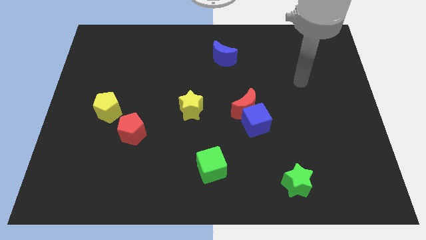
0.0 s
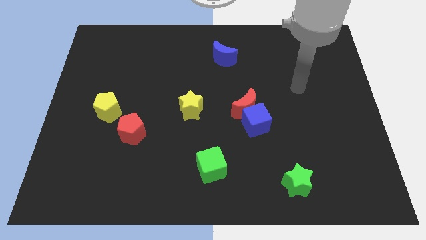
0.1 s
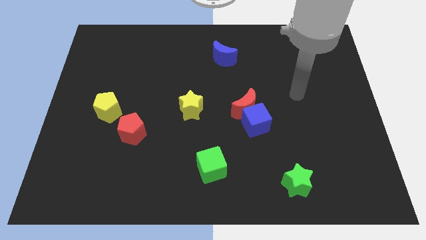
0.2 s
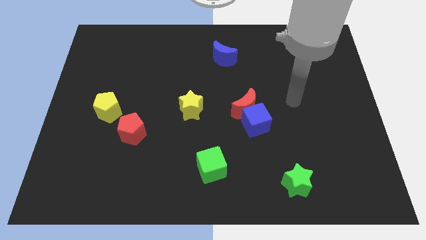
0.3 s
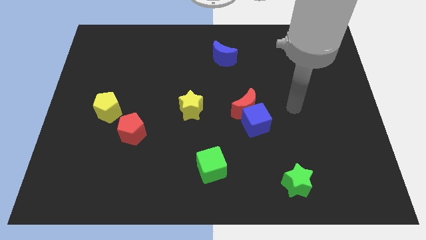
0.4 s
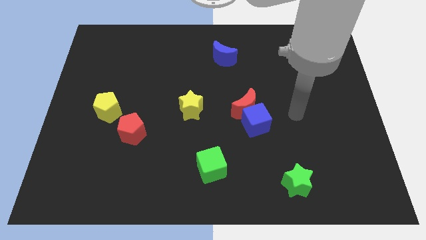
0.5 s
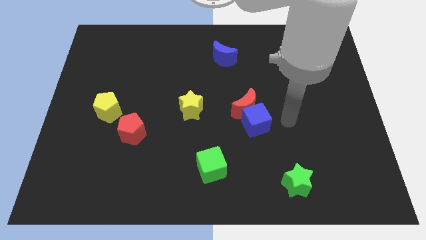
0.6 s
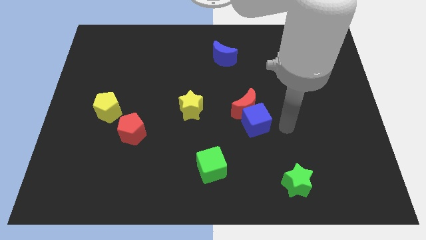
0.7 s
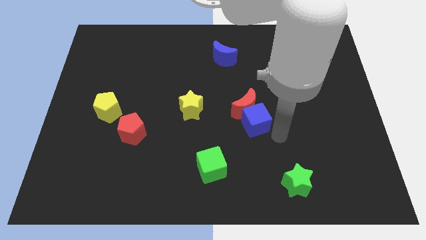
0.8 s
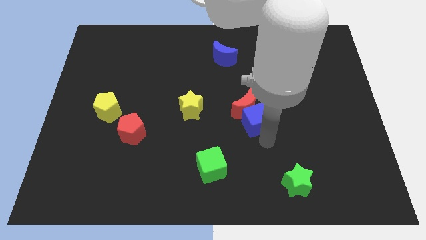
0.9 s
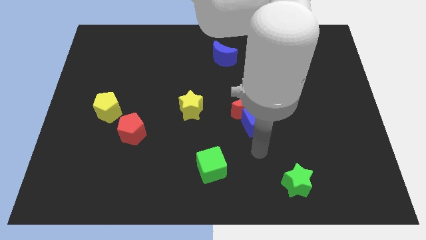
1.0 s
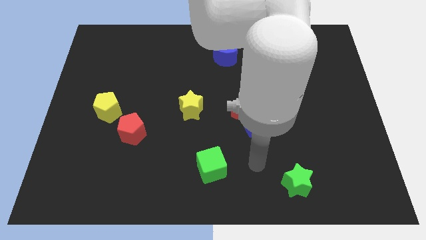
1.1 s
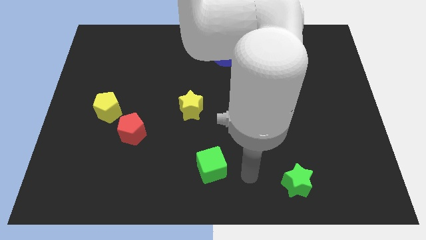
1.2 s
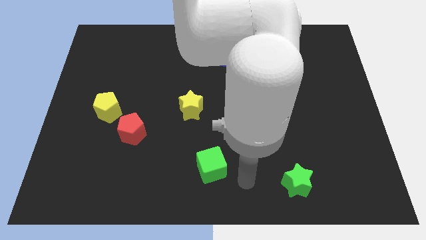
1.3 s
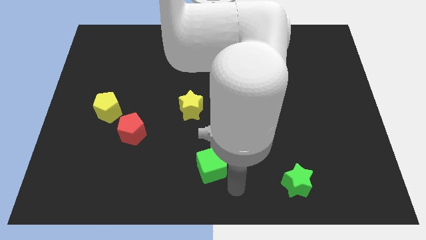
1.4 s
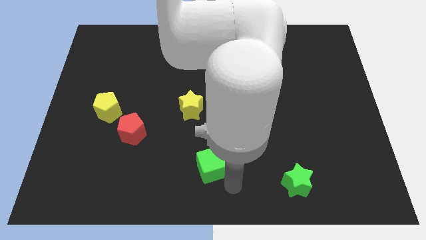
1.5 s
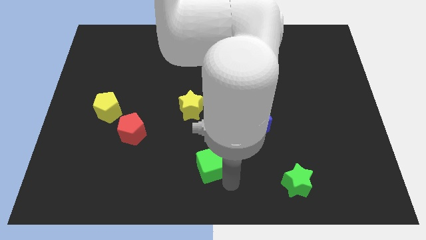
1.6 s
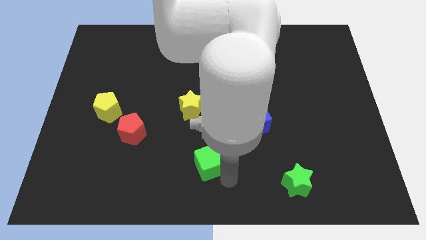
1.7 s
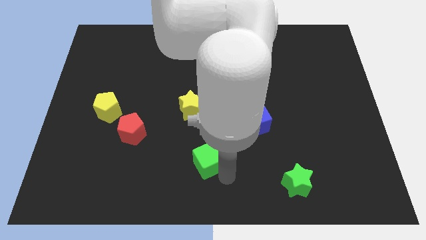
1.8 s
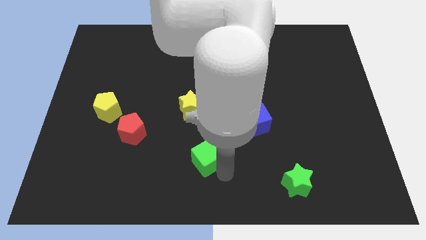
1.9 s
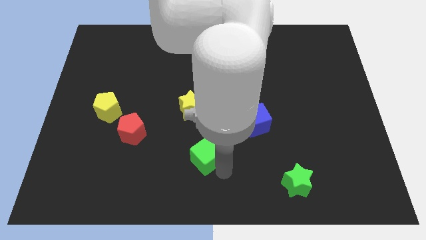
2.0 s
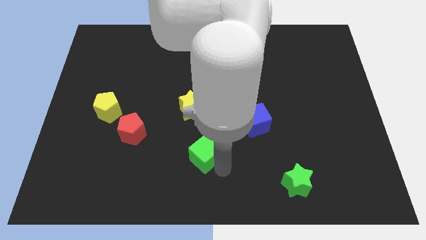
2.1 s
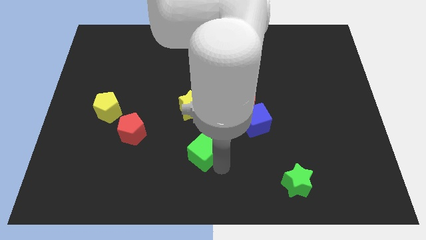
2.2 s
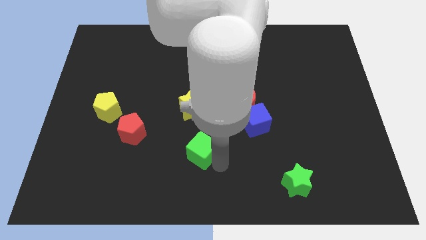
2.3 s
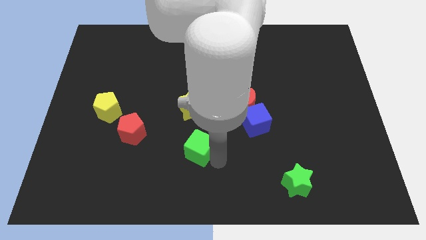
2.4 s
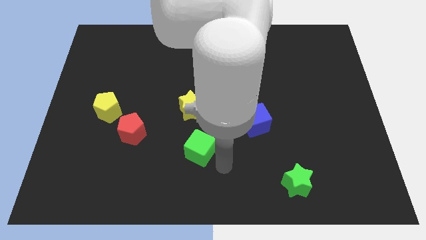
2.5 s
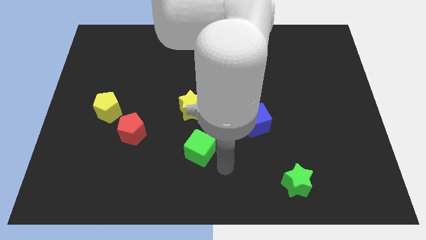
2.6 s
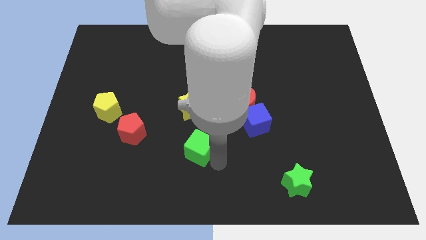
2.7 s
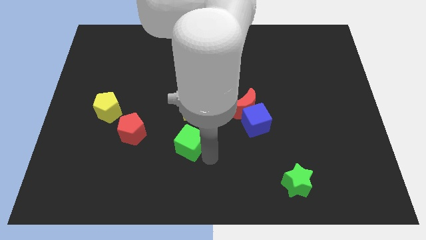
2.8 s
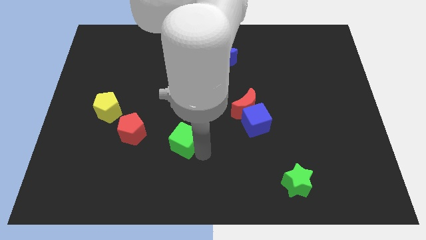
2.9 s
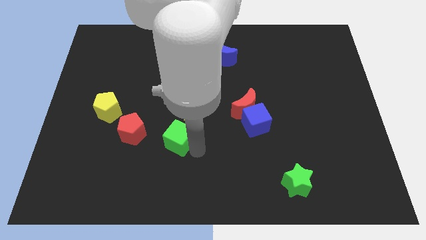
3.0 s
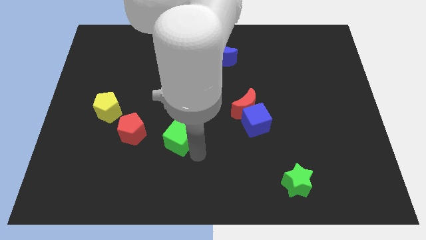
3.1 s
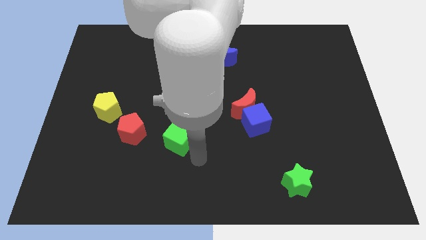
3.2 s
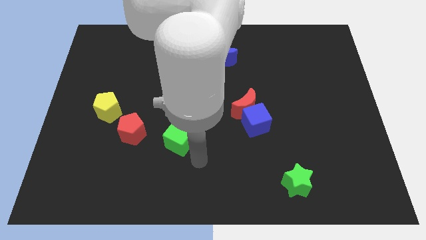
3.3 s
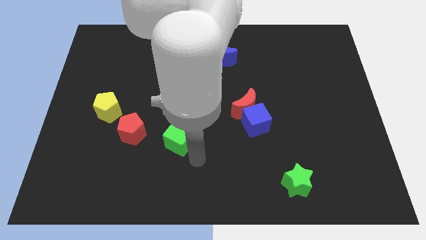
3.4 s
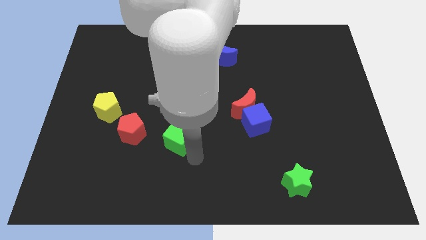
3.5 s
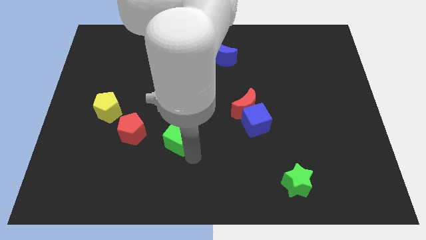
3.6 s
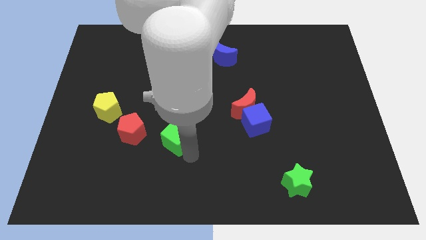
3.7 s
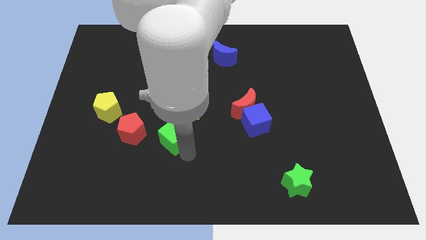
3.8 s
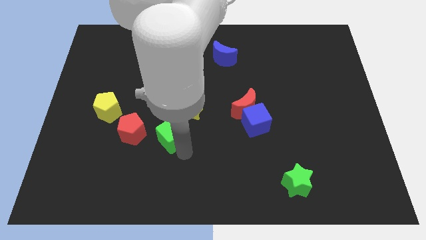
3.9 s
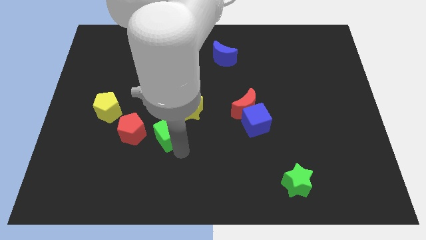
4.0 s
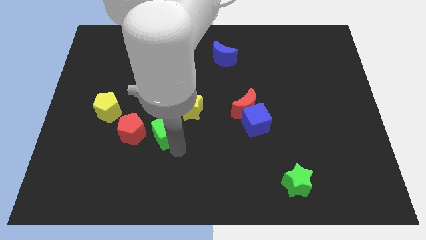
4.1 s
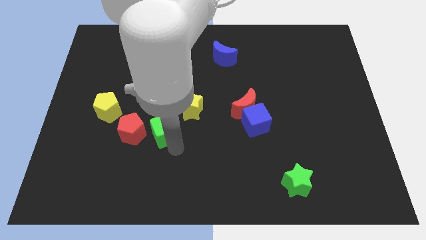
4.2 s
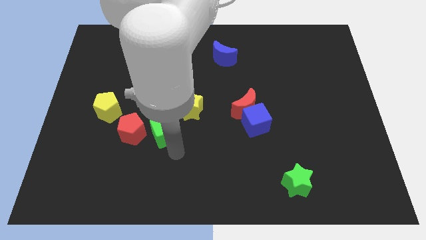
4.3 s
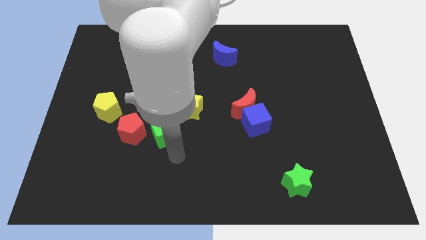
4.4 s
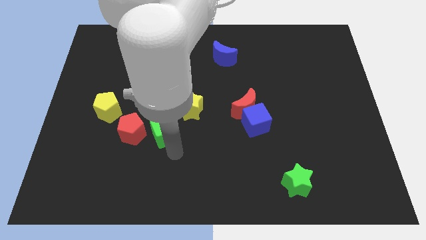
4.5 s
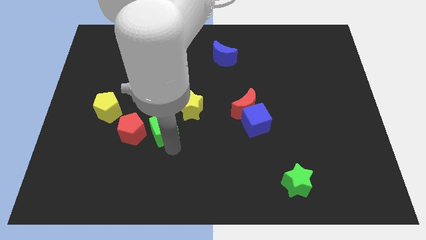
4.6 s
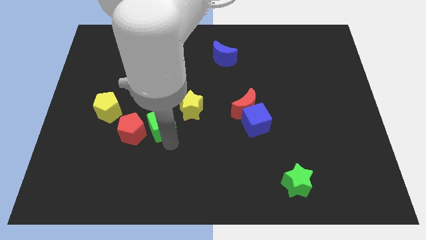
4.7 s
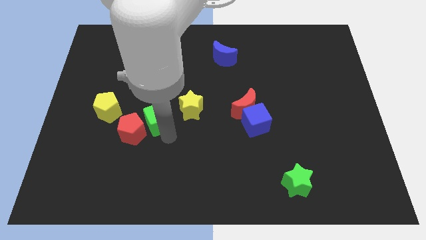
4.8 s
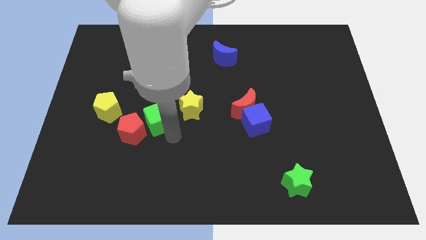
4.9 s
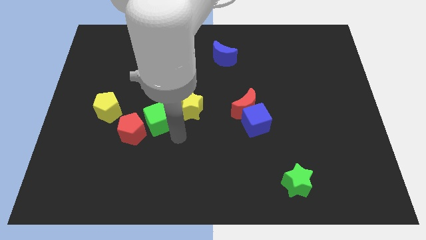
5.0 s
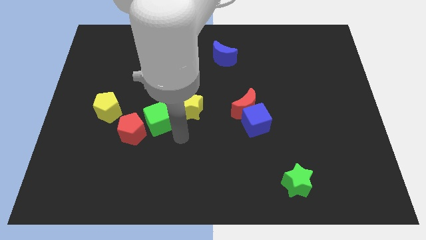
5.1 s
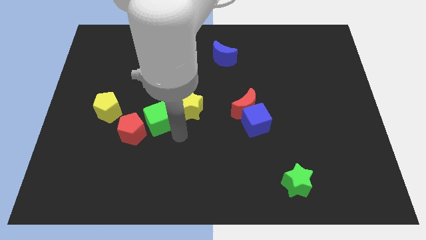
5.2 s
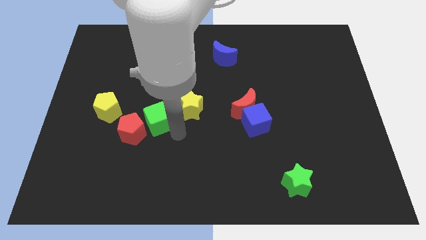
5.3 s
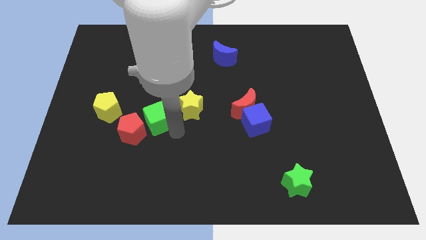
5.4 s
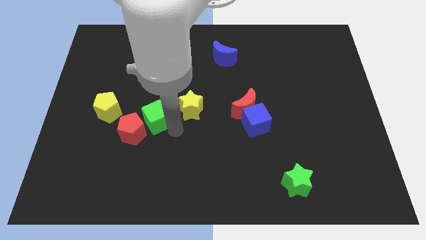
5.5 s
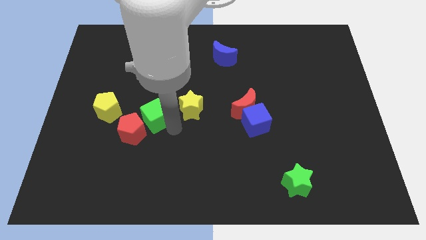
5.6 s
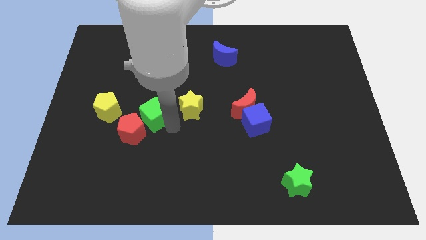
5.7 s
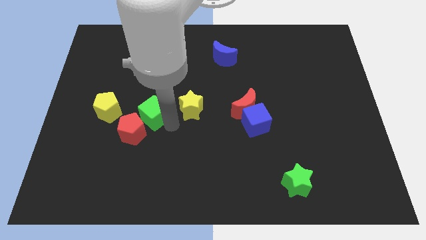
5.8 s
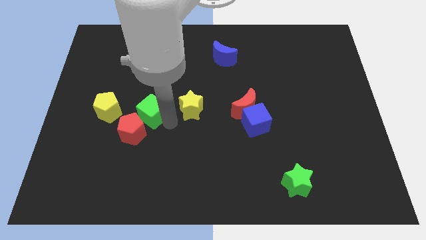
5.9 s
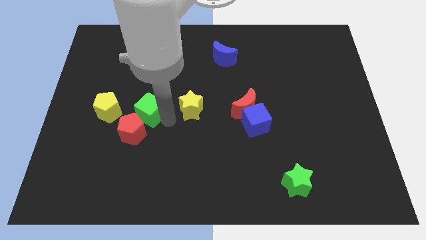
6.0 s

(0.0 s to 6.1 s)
move the green cube up and to the left diagonally

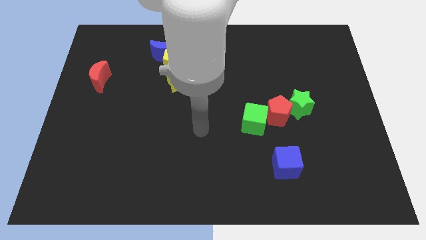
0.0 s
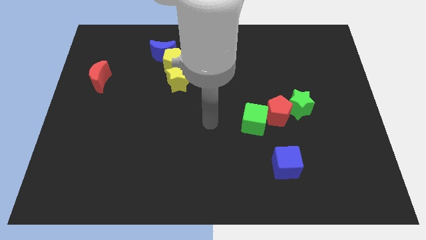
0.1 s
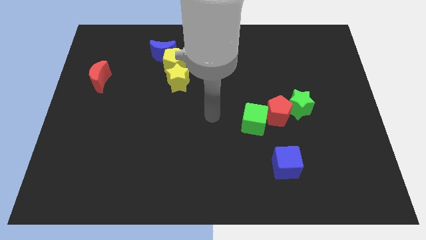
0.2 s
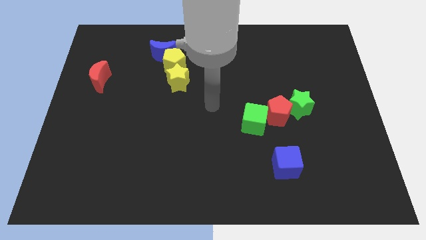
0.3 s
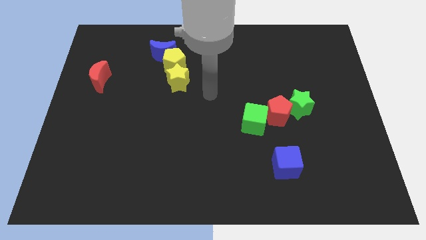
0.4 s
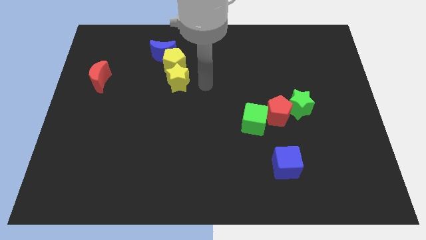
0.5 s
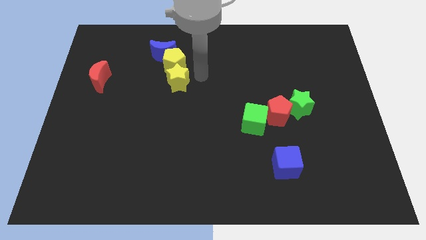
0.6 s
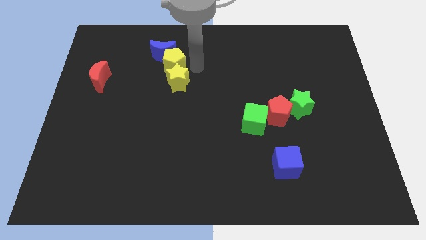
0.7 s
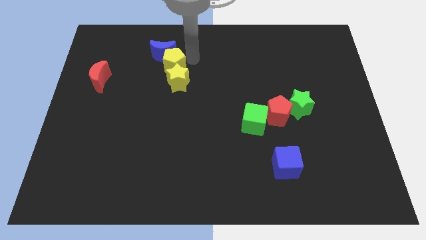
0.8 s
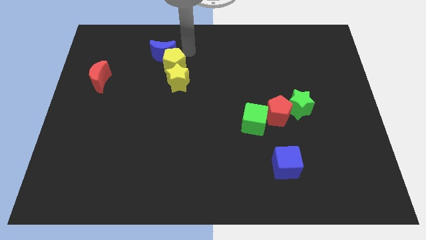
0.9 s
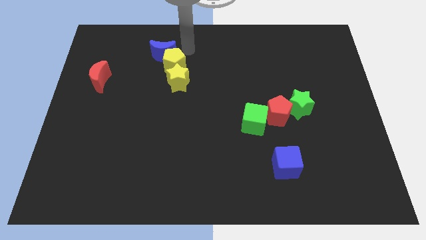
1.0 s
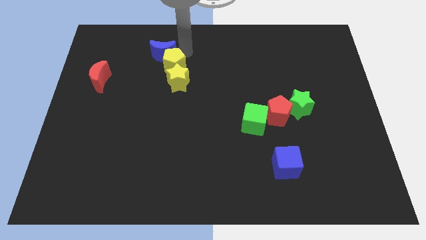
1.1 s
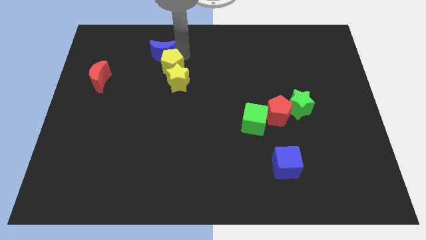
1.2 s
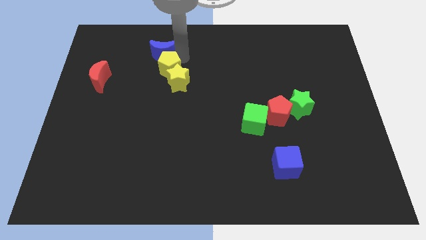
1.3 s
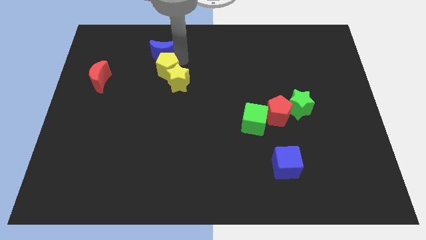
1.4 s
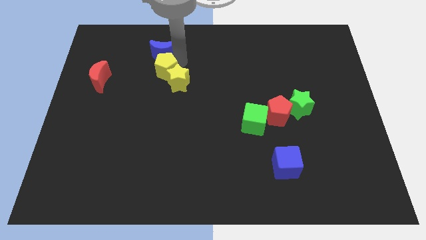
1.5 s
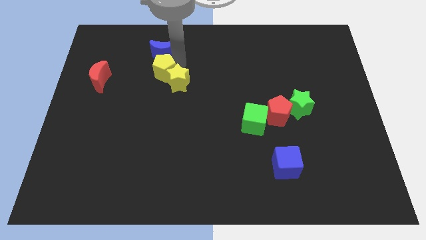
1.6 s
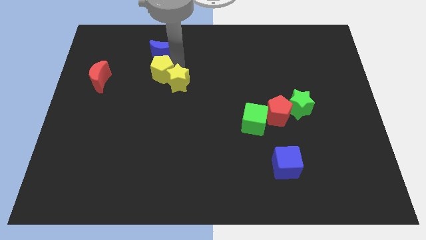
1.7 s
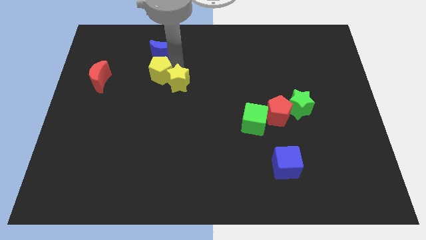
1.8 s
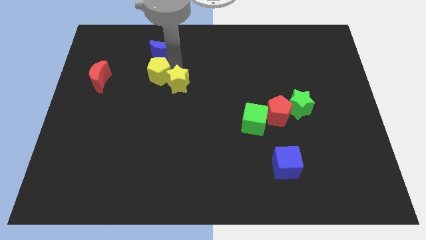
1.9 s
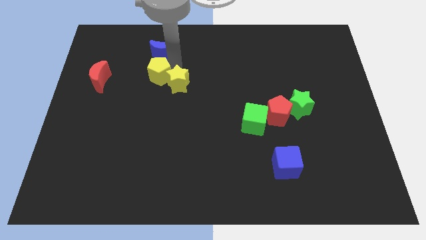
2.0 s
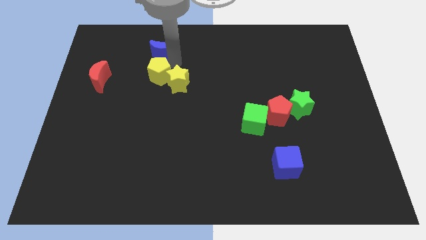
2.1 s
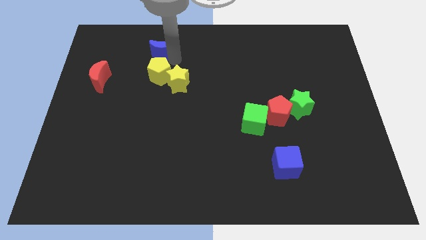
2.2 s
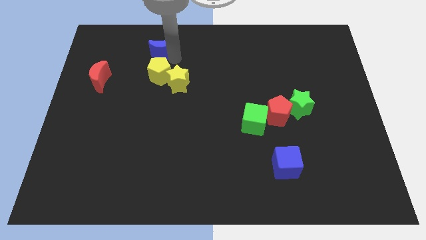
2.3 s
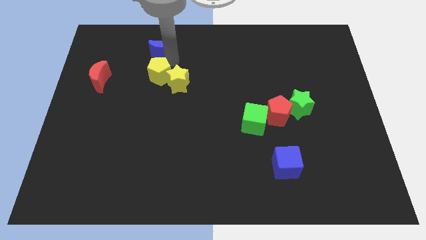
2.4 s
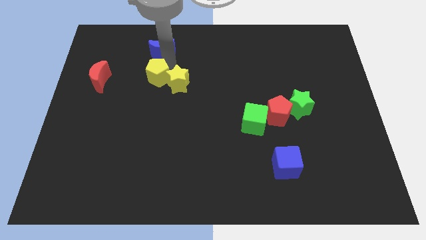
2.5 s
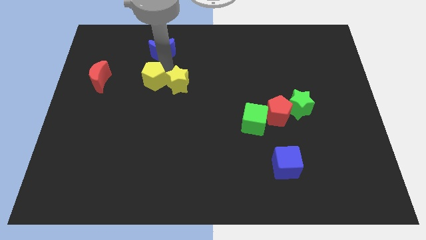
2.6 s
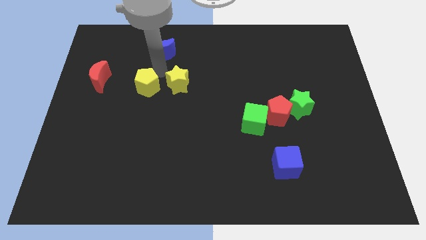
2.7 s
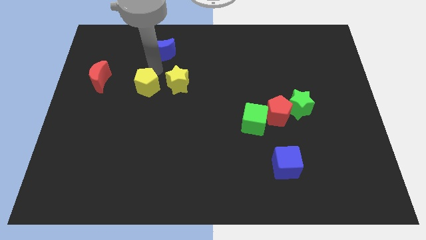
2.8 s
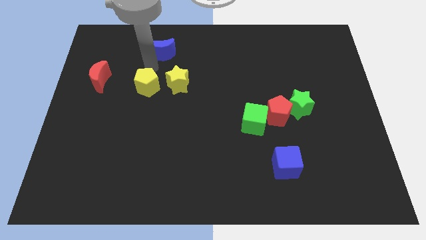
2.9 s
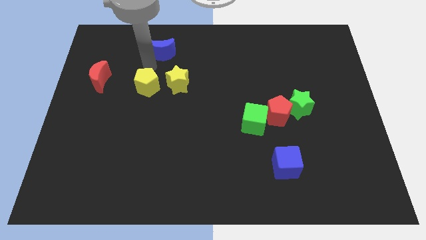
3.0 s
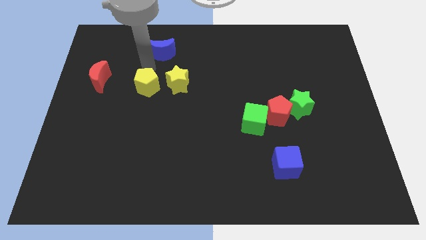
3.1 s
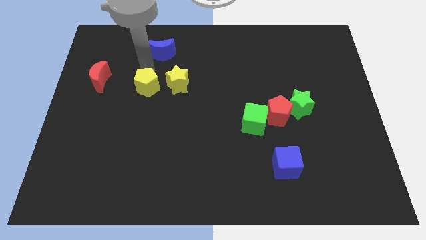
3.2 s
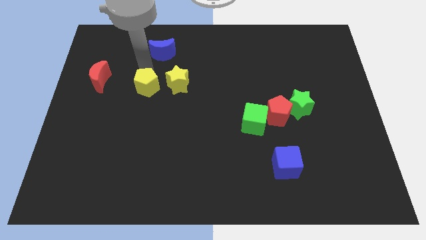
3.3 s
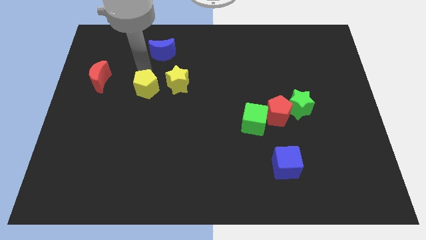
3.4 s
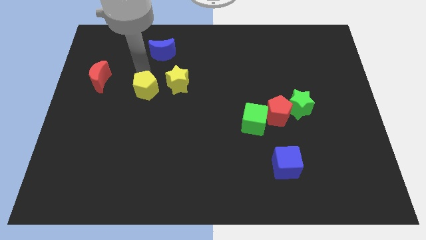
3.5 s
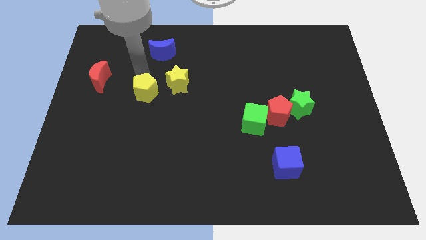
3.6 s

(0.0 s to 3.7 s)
push the yellow pentagon downwards somewhat
